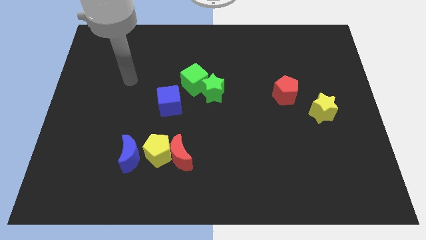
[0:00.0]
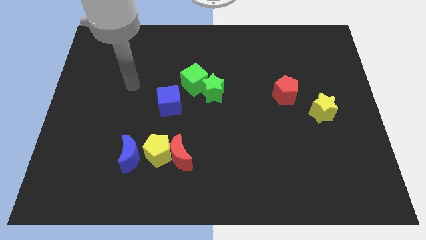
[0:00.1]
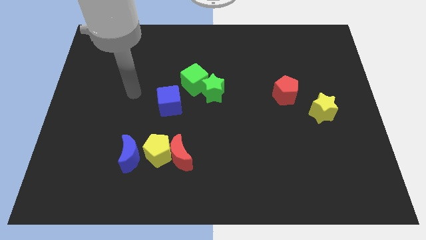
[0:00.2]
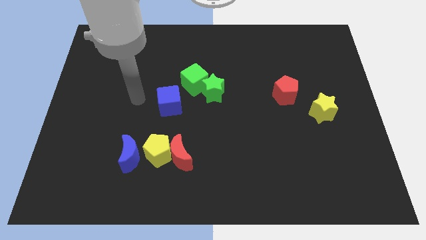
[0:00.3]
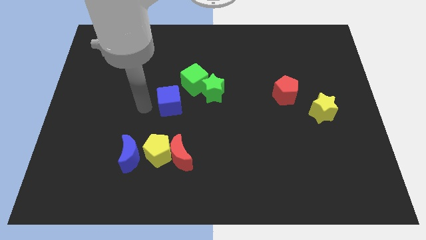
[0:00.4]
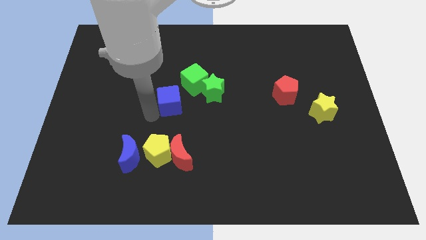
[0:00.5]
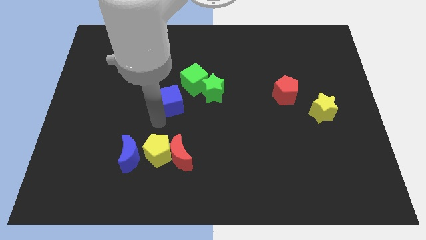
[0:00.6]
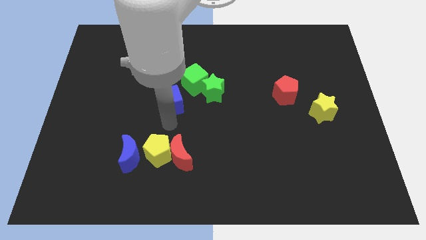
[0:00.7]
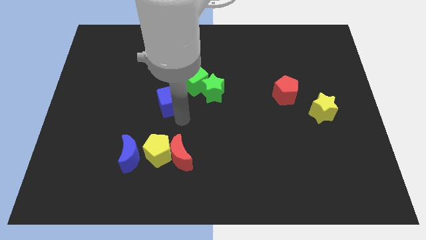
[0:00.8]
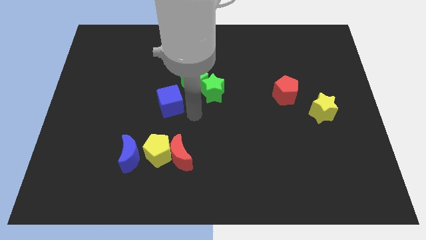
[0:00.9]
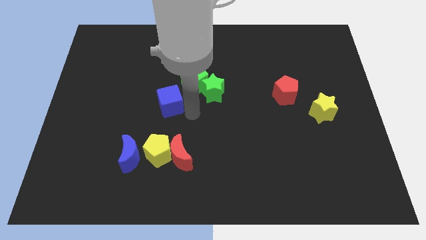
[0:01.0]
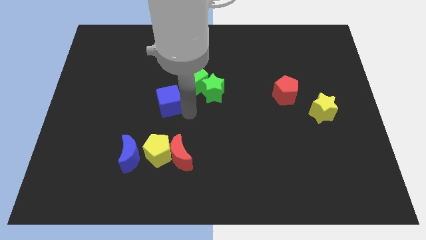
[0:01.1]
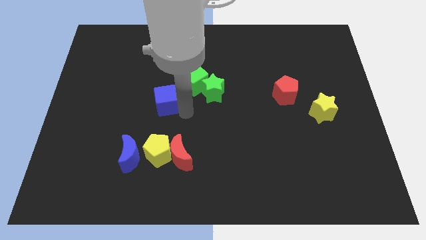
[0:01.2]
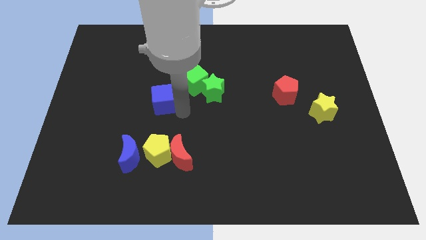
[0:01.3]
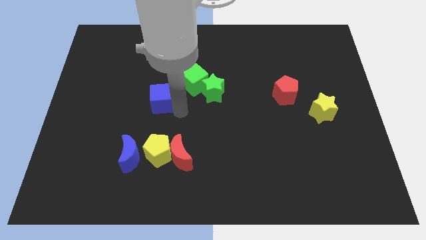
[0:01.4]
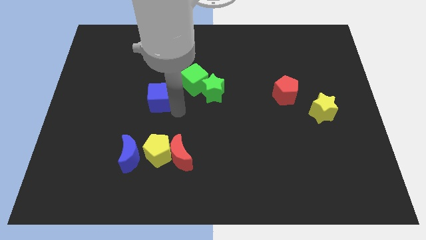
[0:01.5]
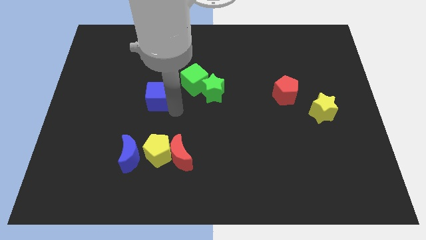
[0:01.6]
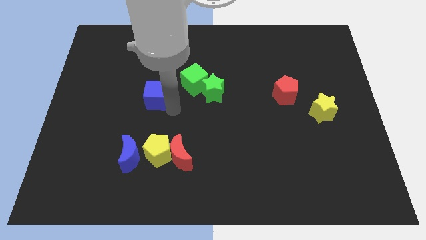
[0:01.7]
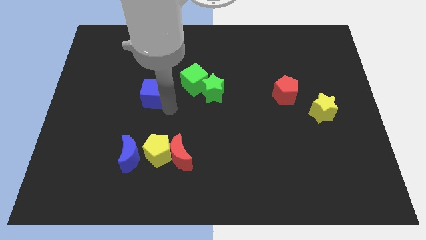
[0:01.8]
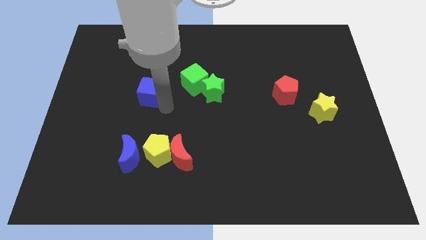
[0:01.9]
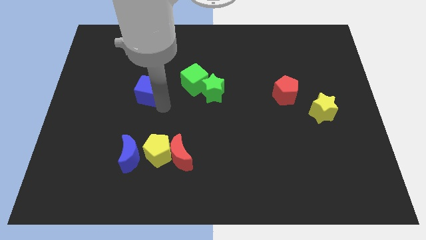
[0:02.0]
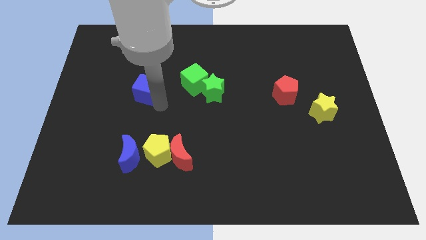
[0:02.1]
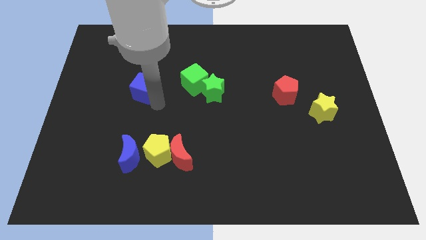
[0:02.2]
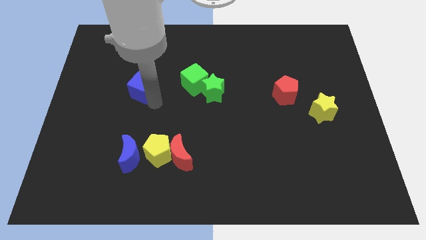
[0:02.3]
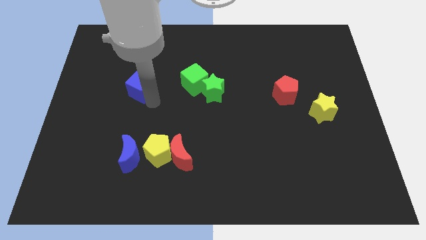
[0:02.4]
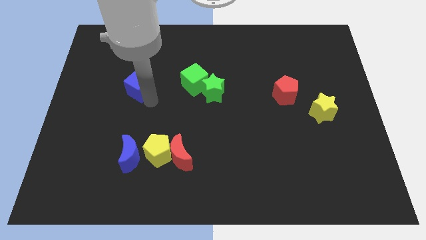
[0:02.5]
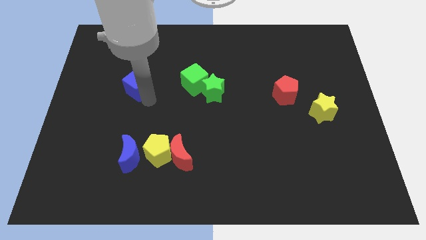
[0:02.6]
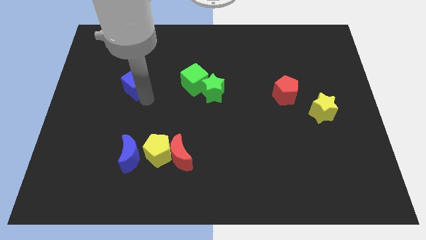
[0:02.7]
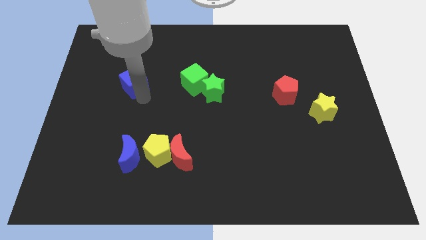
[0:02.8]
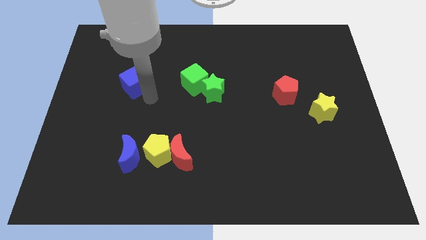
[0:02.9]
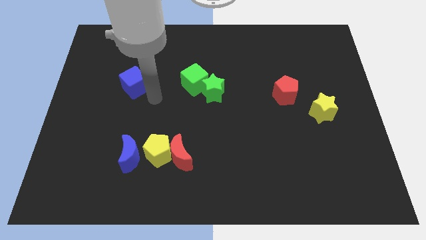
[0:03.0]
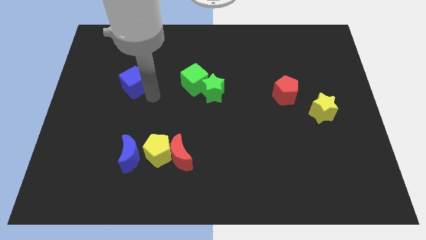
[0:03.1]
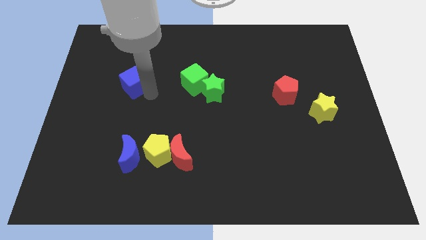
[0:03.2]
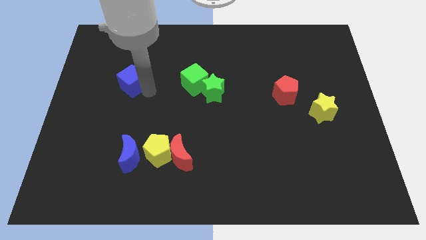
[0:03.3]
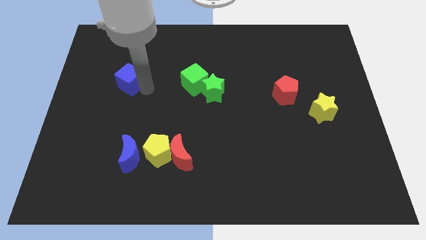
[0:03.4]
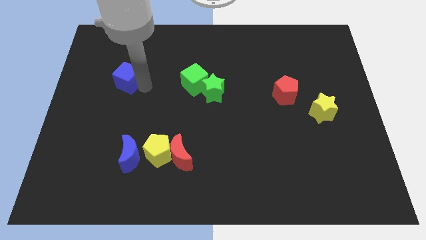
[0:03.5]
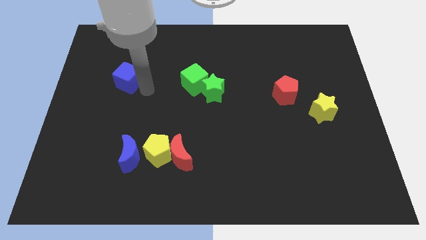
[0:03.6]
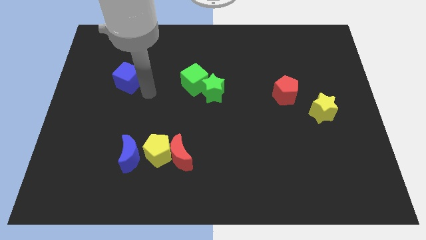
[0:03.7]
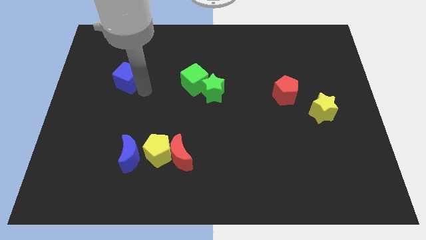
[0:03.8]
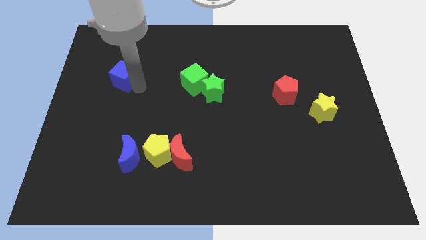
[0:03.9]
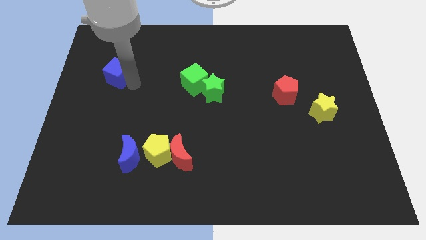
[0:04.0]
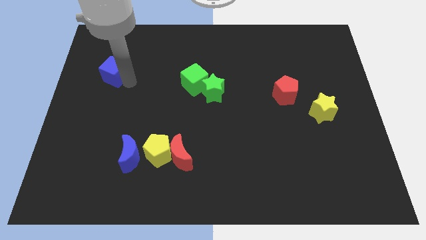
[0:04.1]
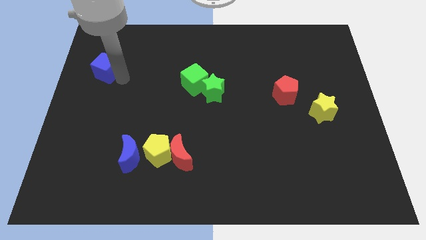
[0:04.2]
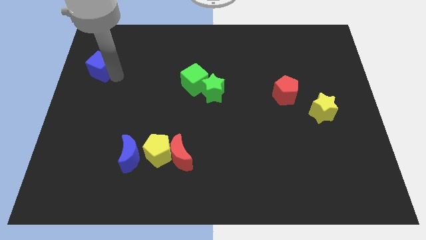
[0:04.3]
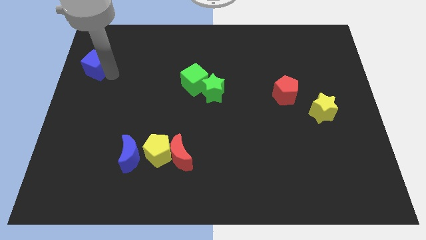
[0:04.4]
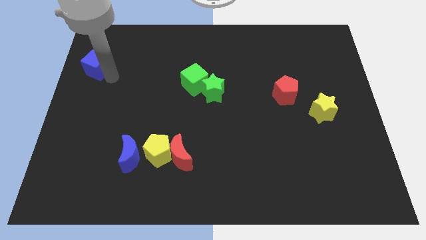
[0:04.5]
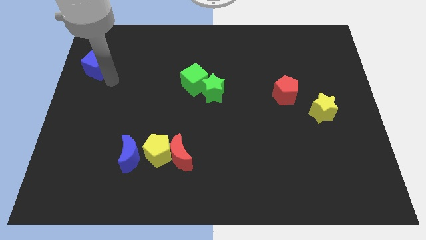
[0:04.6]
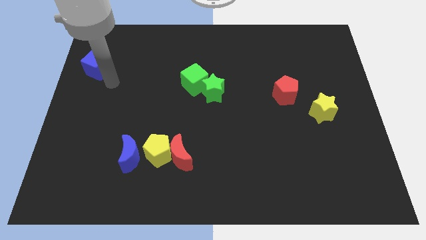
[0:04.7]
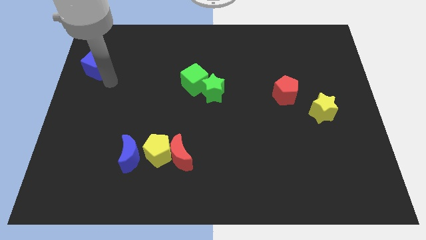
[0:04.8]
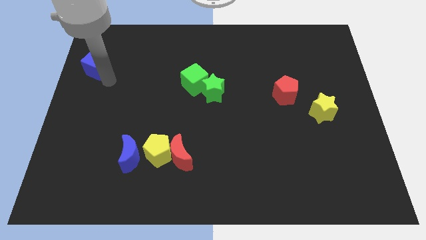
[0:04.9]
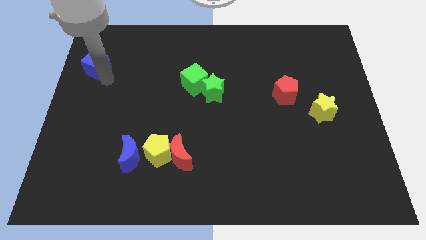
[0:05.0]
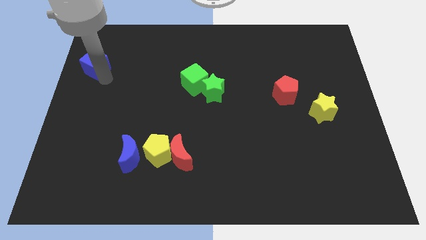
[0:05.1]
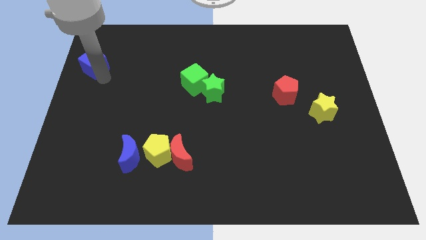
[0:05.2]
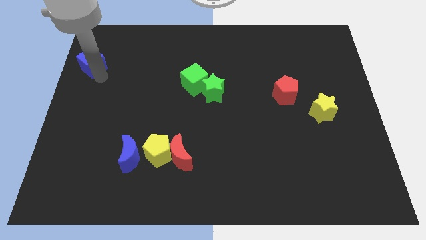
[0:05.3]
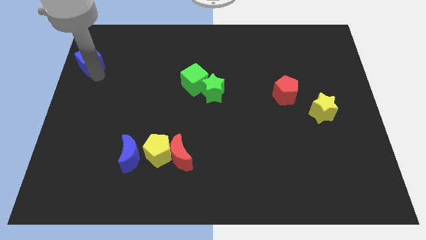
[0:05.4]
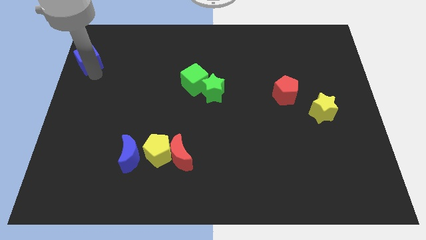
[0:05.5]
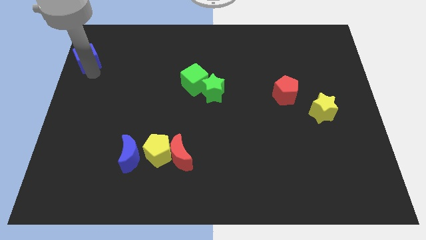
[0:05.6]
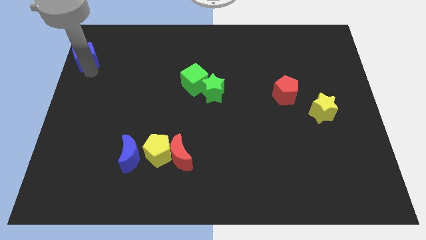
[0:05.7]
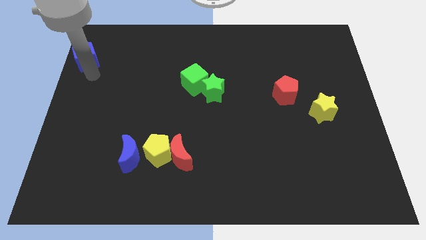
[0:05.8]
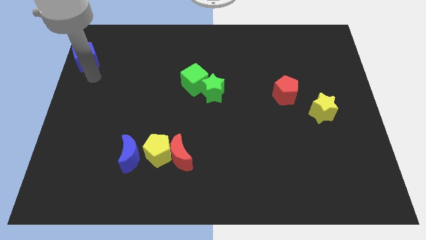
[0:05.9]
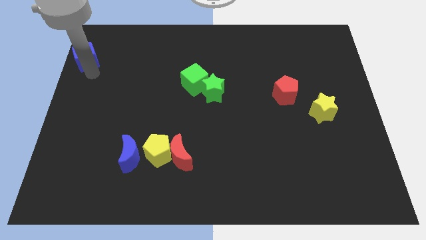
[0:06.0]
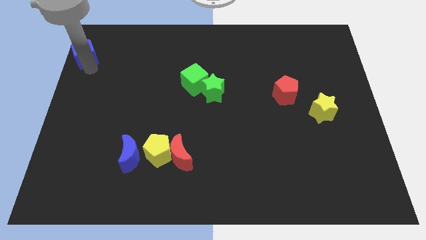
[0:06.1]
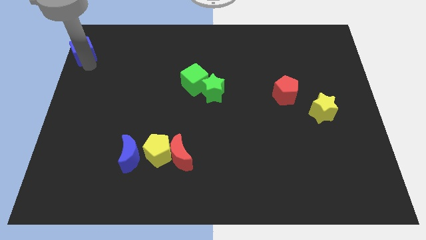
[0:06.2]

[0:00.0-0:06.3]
slide the blue cube to the top left
